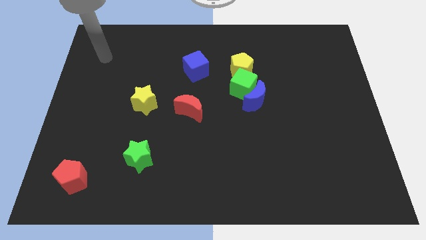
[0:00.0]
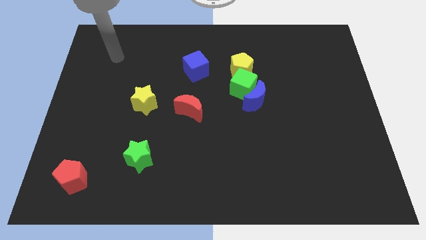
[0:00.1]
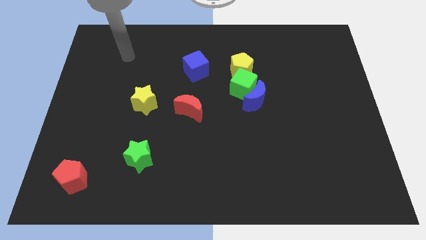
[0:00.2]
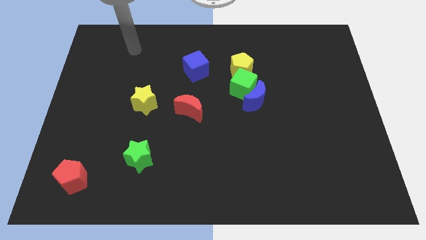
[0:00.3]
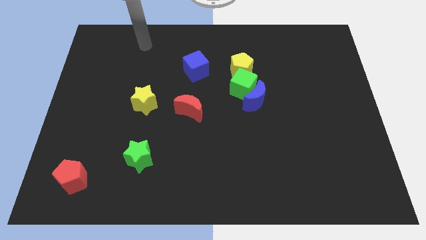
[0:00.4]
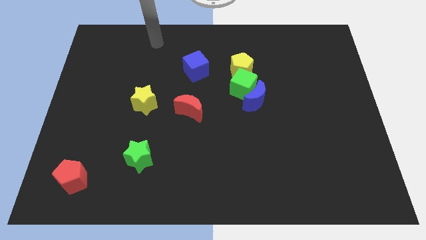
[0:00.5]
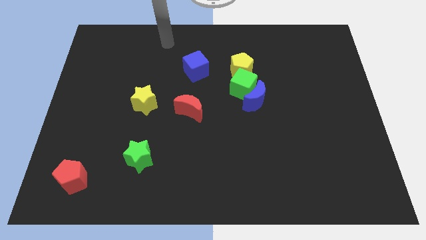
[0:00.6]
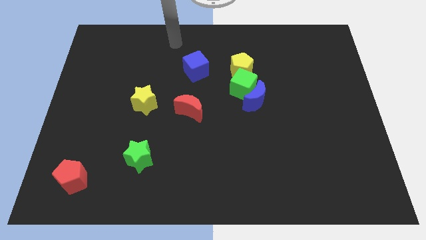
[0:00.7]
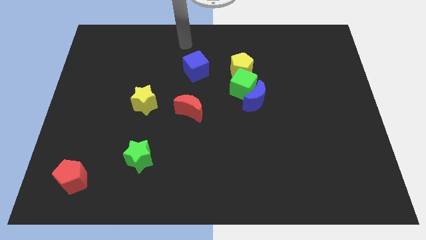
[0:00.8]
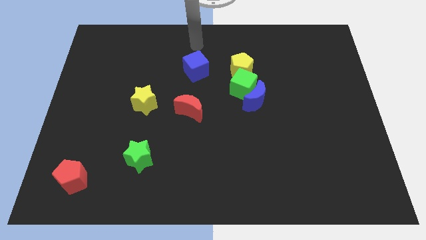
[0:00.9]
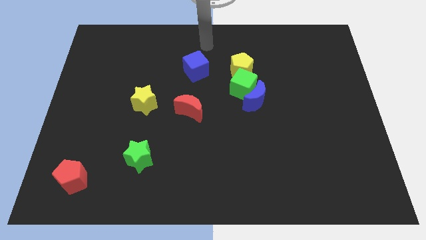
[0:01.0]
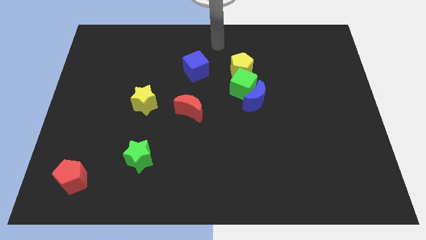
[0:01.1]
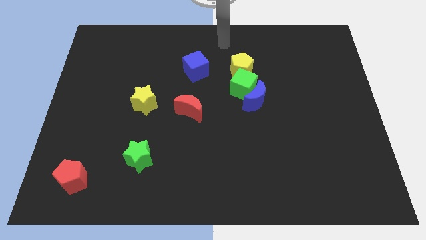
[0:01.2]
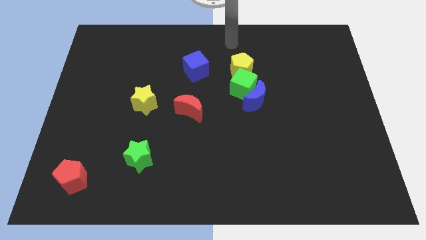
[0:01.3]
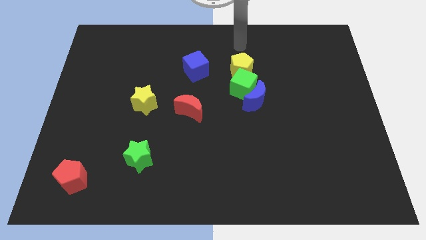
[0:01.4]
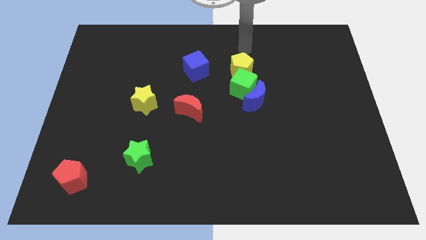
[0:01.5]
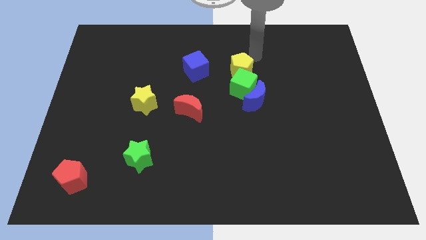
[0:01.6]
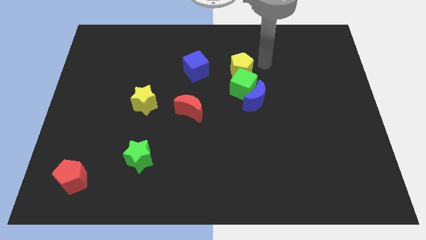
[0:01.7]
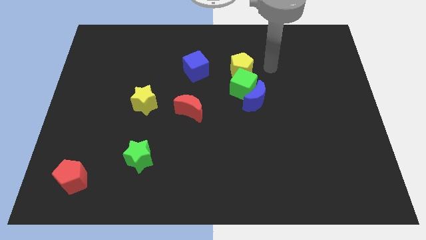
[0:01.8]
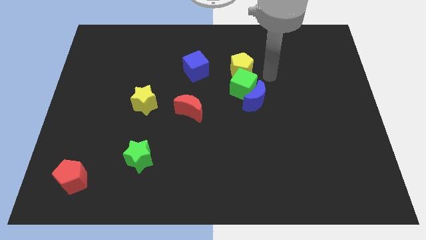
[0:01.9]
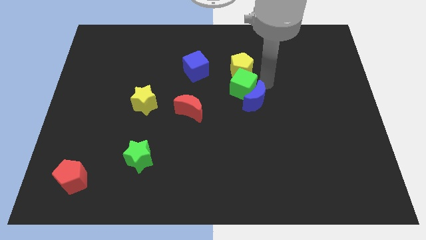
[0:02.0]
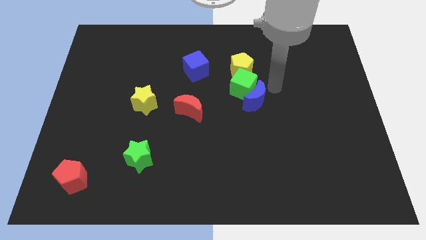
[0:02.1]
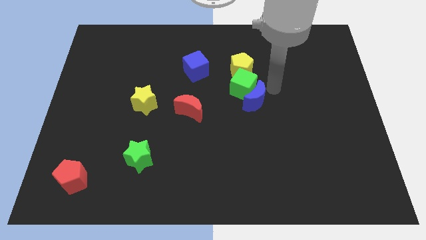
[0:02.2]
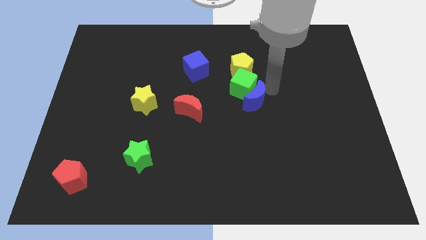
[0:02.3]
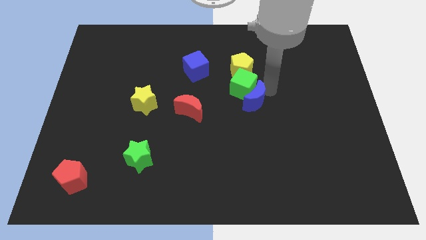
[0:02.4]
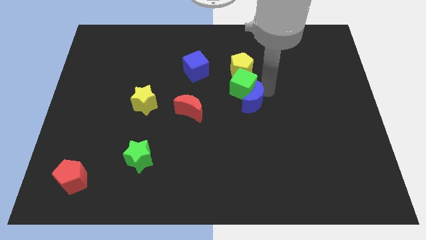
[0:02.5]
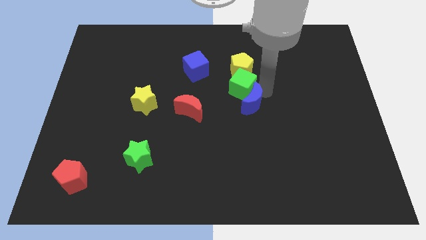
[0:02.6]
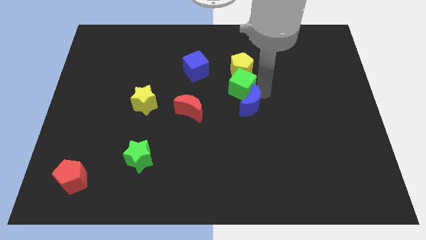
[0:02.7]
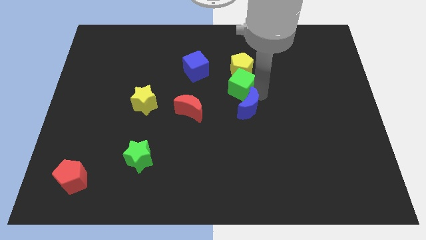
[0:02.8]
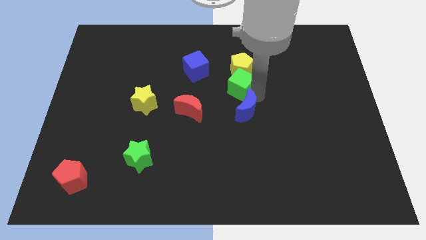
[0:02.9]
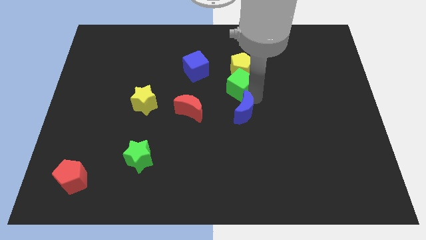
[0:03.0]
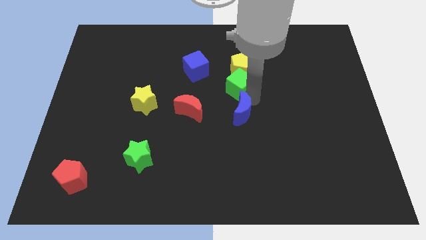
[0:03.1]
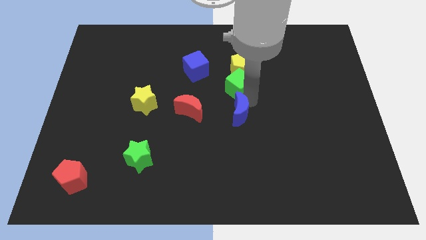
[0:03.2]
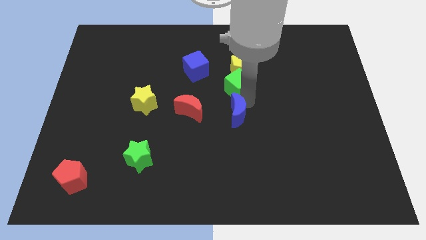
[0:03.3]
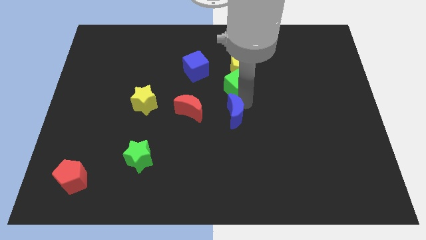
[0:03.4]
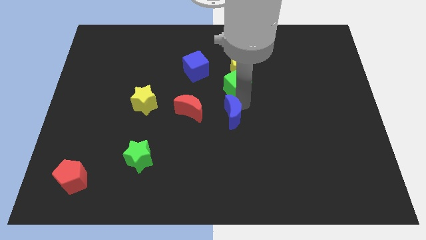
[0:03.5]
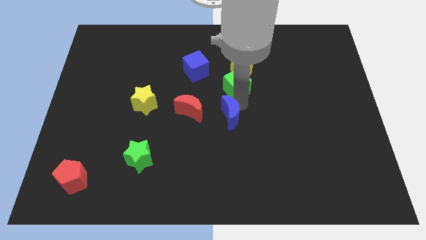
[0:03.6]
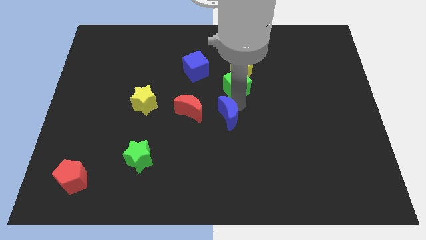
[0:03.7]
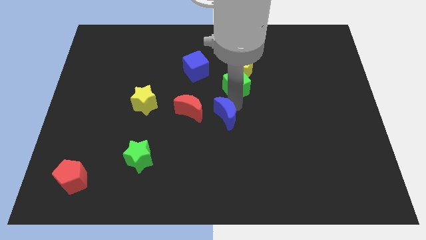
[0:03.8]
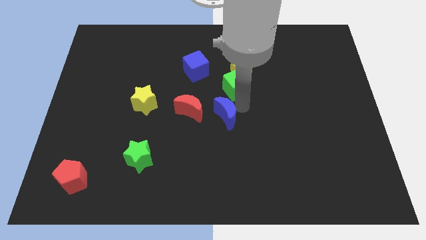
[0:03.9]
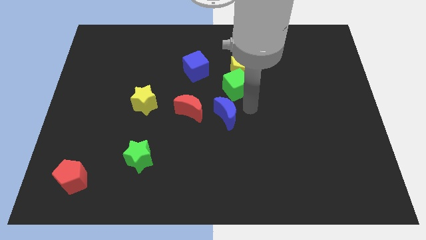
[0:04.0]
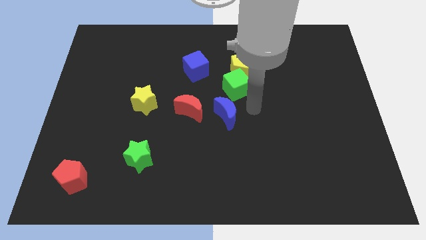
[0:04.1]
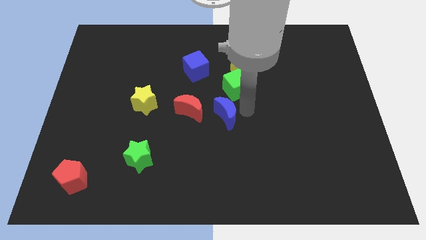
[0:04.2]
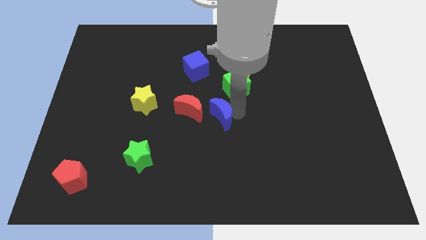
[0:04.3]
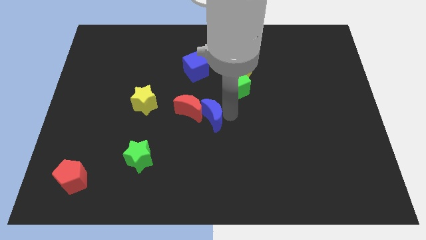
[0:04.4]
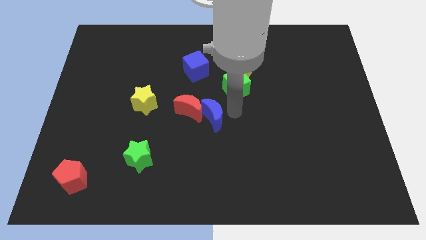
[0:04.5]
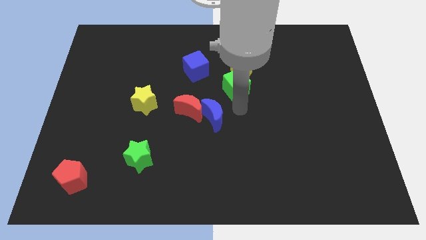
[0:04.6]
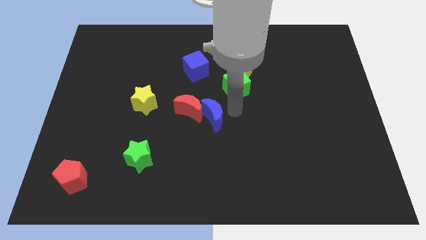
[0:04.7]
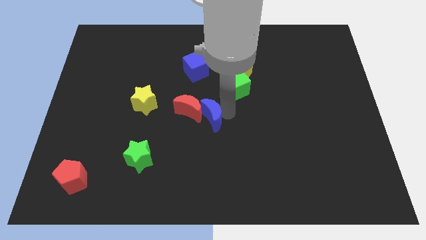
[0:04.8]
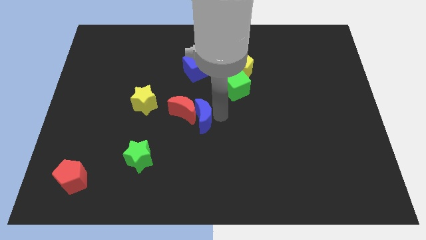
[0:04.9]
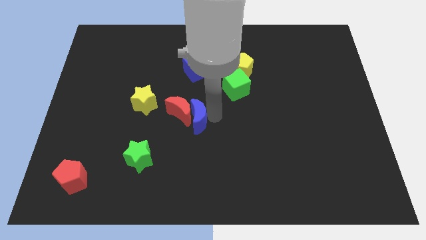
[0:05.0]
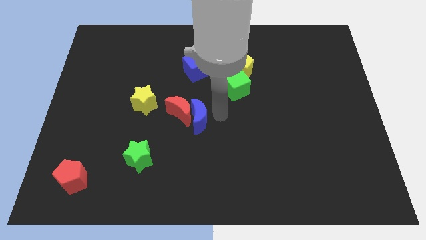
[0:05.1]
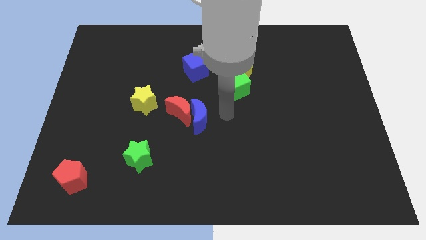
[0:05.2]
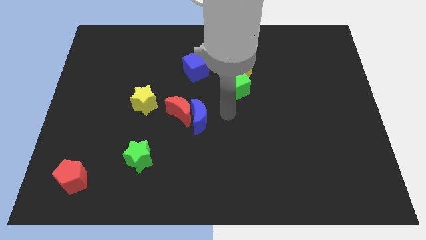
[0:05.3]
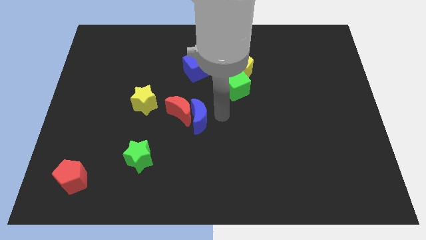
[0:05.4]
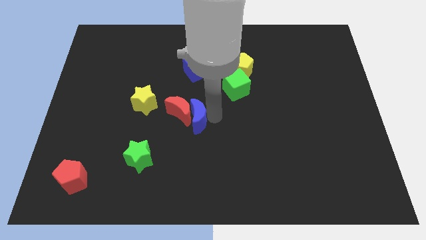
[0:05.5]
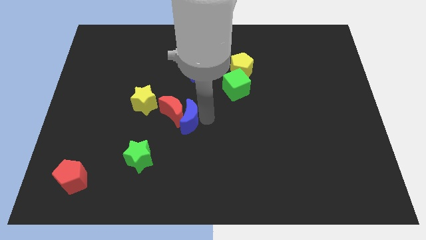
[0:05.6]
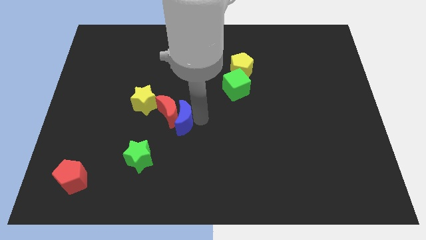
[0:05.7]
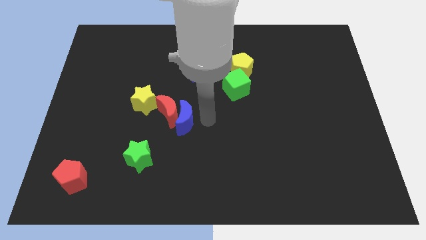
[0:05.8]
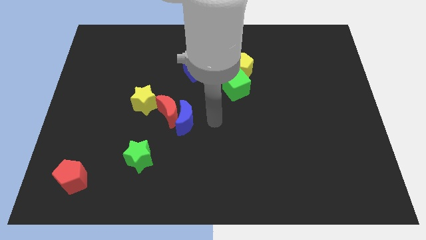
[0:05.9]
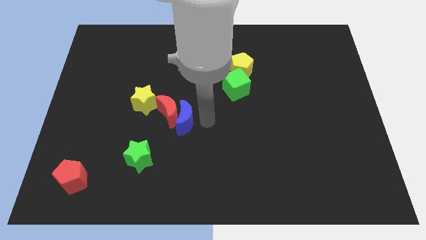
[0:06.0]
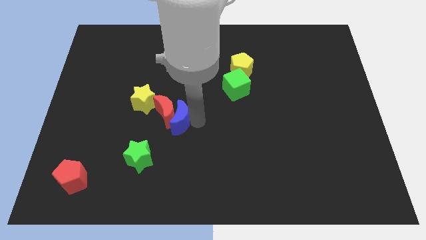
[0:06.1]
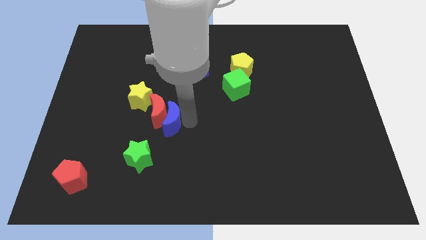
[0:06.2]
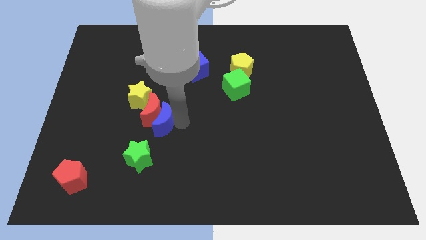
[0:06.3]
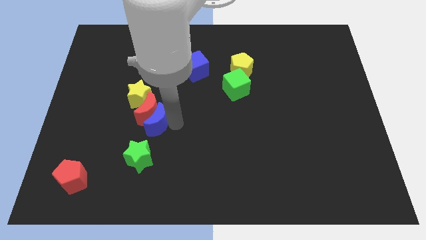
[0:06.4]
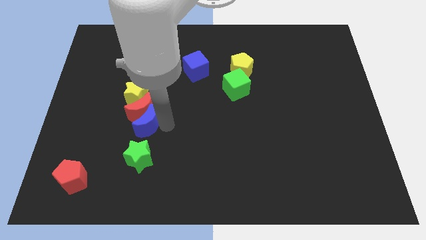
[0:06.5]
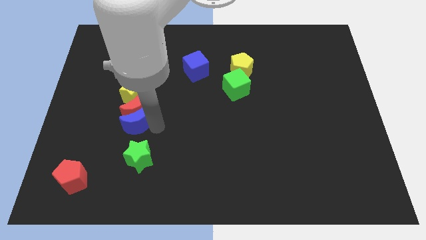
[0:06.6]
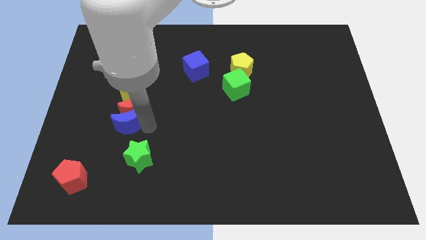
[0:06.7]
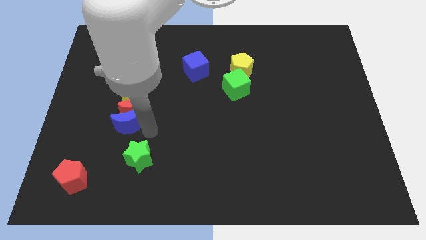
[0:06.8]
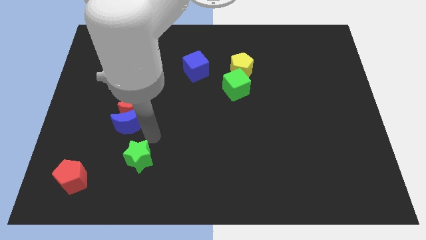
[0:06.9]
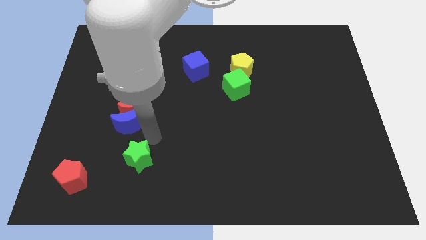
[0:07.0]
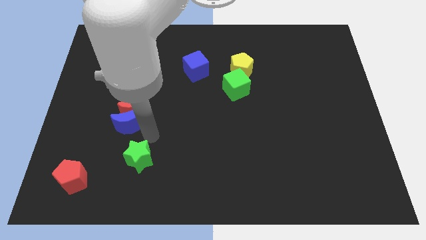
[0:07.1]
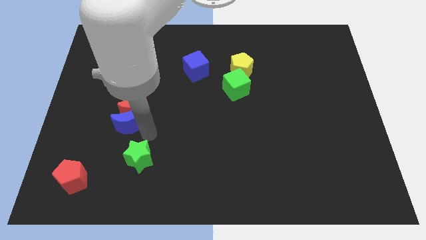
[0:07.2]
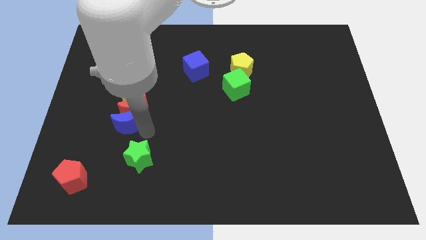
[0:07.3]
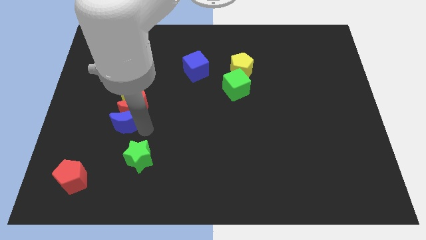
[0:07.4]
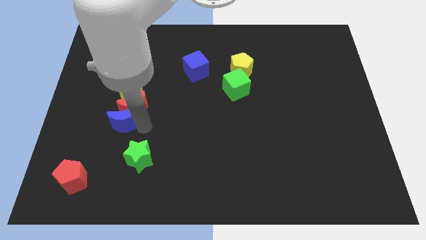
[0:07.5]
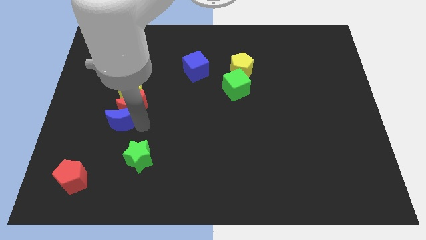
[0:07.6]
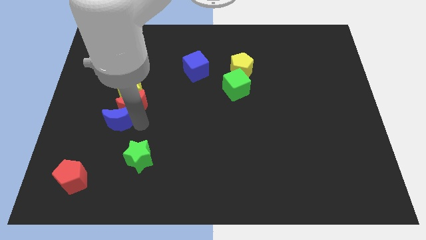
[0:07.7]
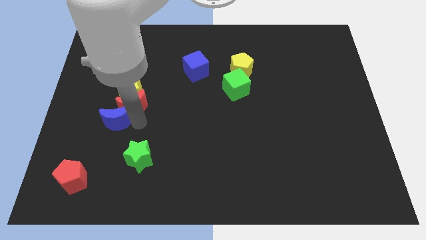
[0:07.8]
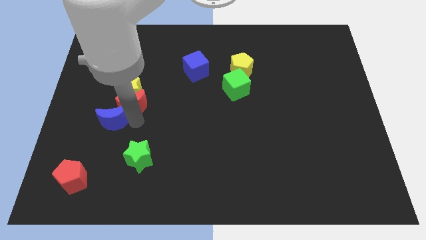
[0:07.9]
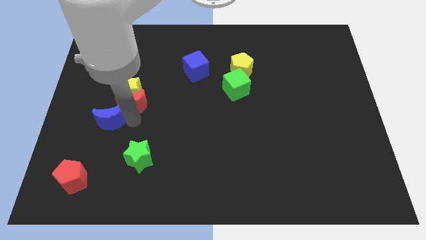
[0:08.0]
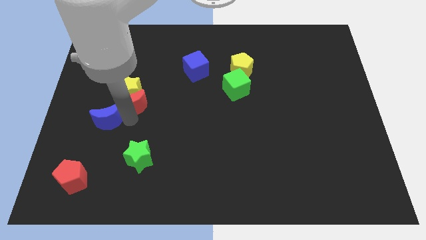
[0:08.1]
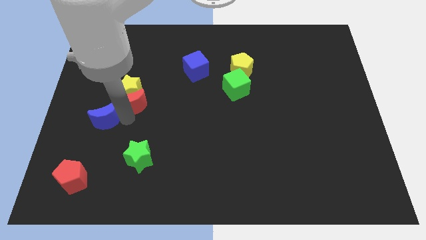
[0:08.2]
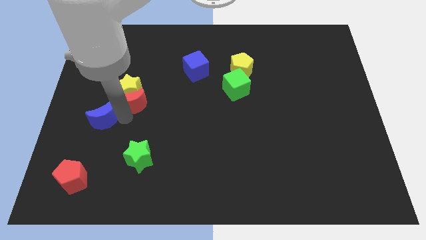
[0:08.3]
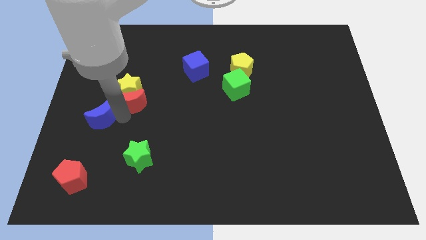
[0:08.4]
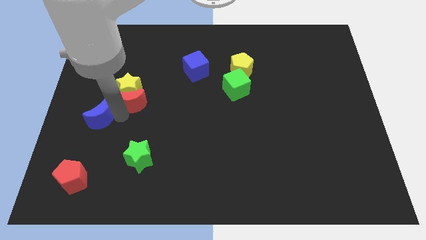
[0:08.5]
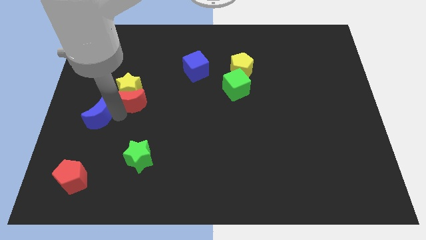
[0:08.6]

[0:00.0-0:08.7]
move the blue moon to the left side of the board
